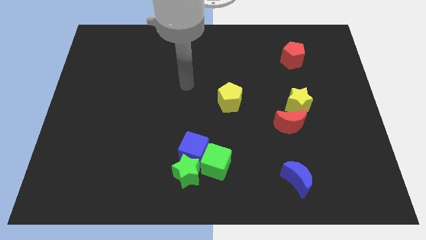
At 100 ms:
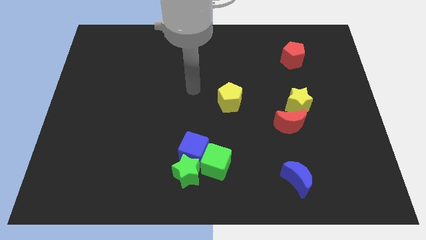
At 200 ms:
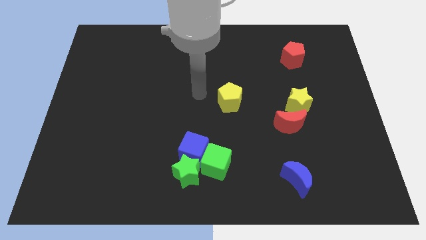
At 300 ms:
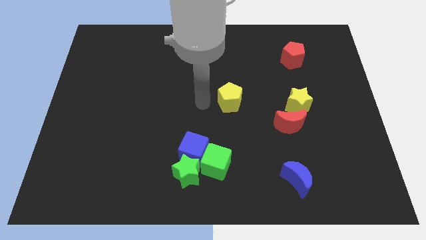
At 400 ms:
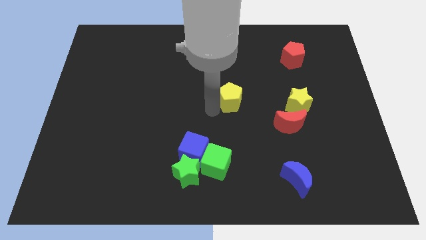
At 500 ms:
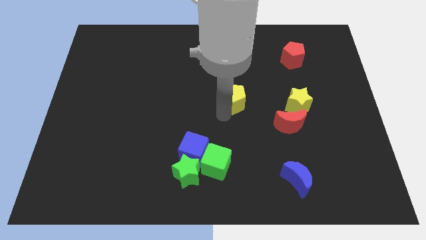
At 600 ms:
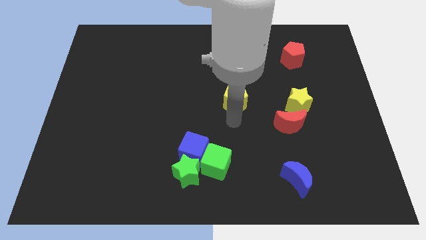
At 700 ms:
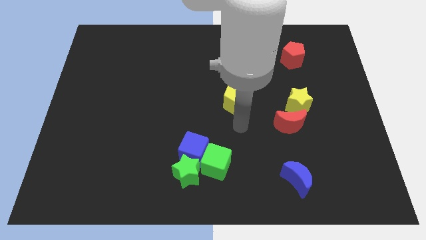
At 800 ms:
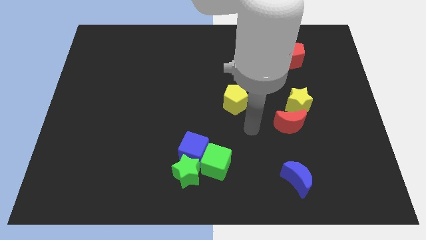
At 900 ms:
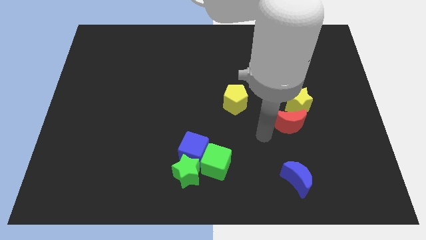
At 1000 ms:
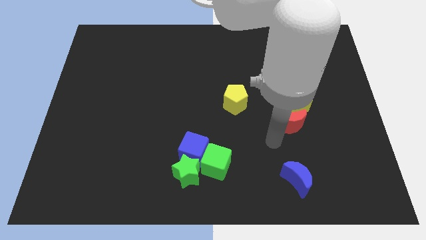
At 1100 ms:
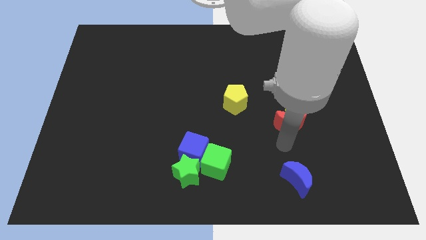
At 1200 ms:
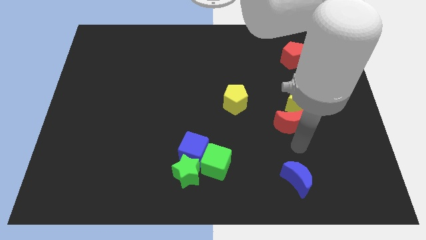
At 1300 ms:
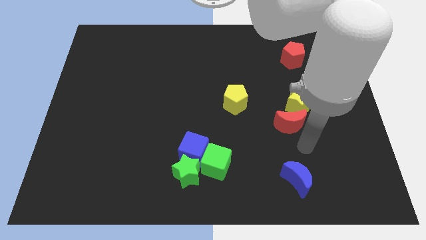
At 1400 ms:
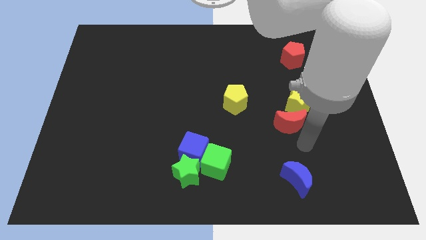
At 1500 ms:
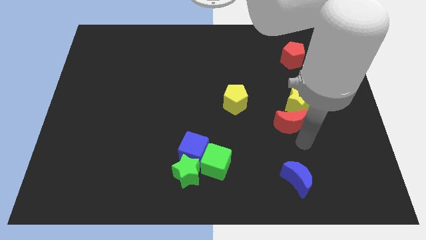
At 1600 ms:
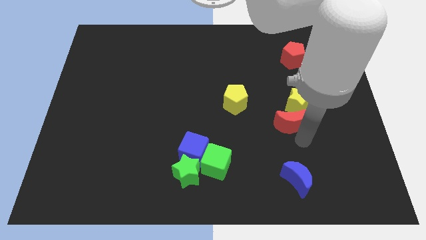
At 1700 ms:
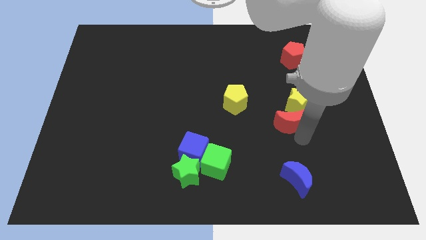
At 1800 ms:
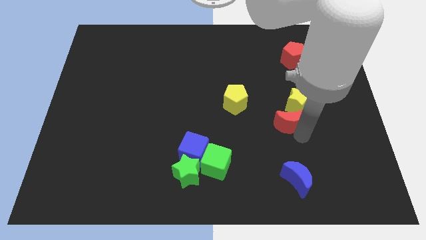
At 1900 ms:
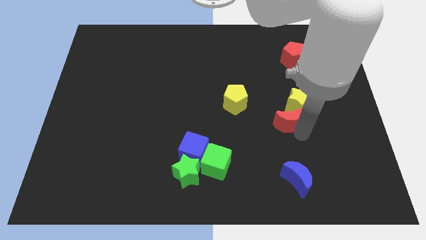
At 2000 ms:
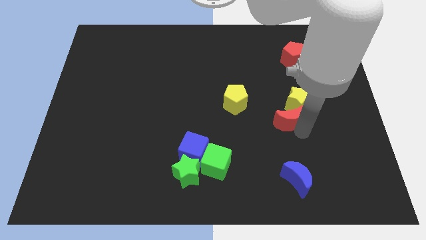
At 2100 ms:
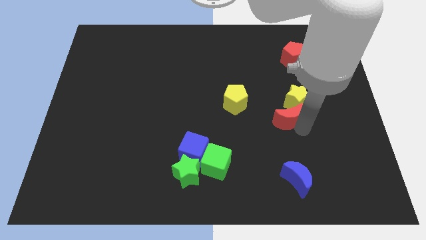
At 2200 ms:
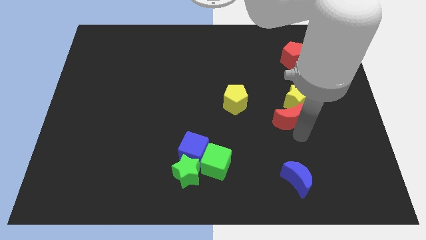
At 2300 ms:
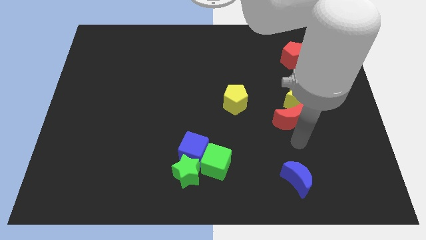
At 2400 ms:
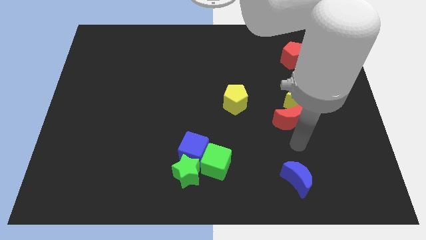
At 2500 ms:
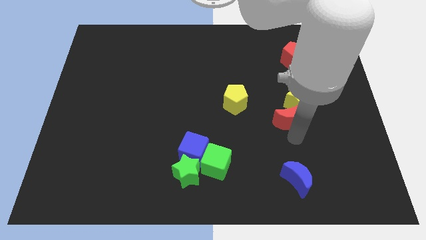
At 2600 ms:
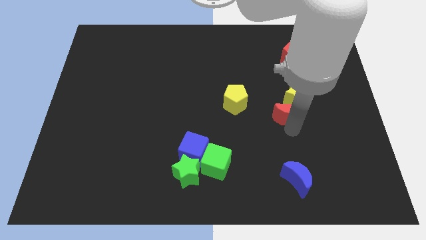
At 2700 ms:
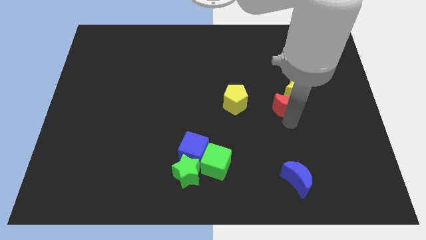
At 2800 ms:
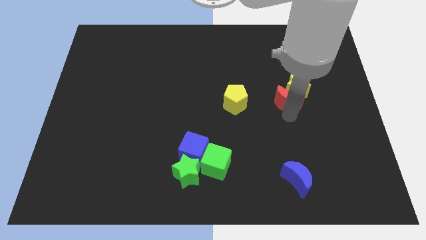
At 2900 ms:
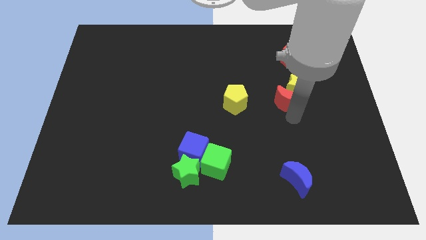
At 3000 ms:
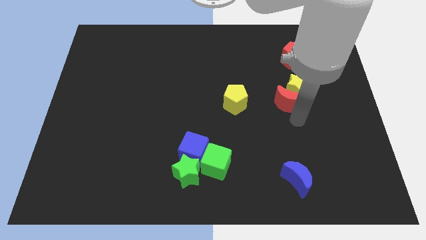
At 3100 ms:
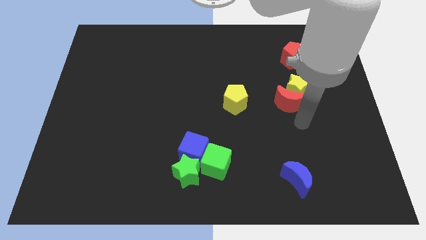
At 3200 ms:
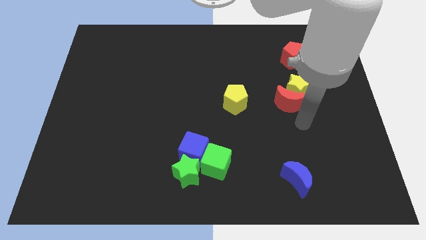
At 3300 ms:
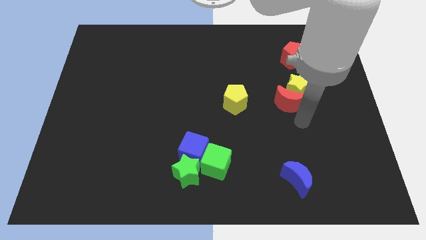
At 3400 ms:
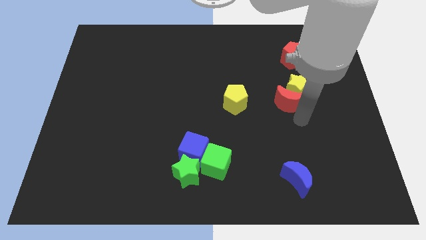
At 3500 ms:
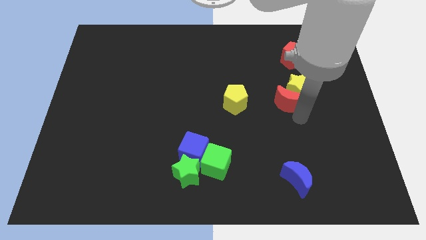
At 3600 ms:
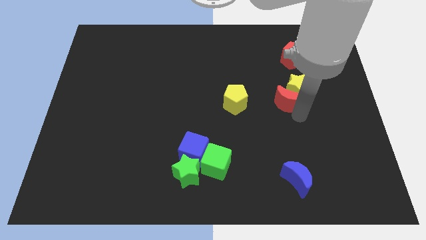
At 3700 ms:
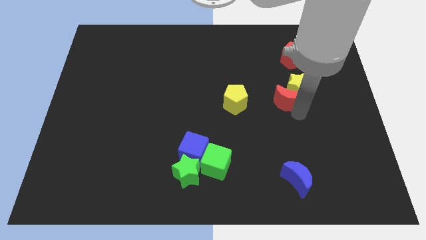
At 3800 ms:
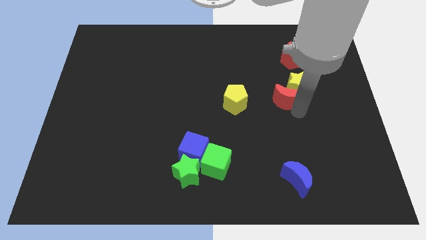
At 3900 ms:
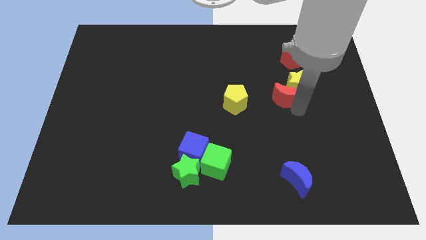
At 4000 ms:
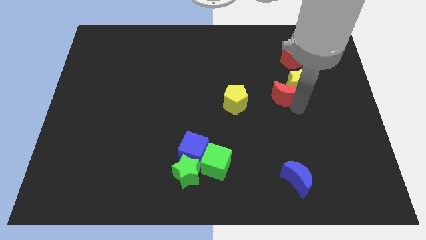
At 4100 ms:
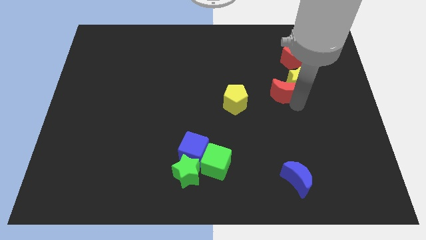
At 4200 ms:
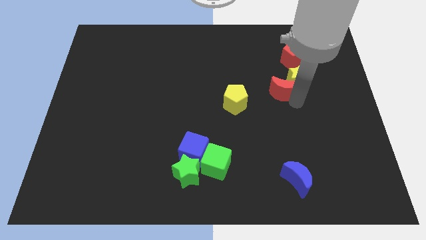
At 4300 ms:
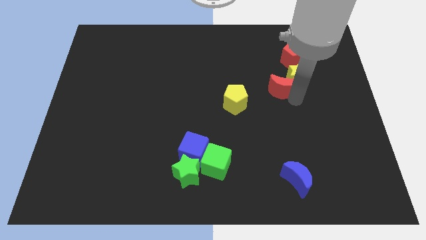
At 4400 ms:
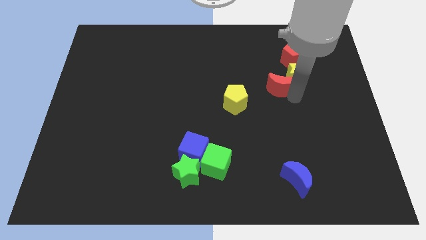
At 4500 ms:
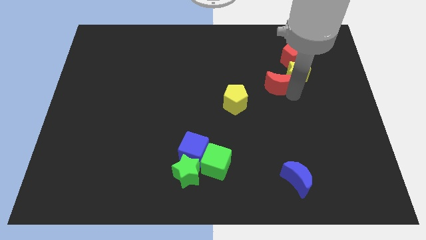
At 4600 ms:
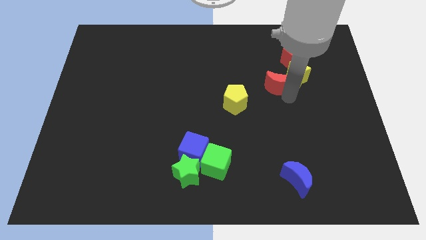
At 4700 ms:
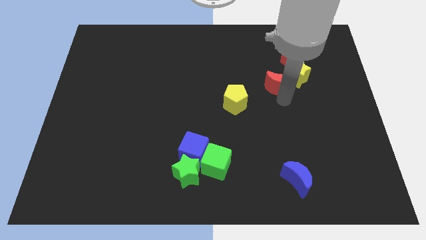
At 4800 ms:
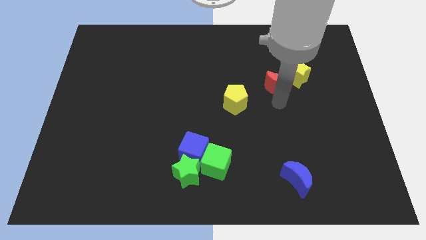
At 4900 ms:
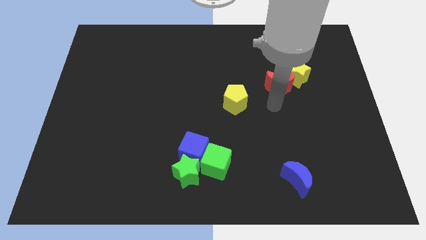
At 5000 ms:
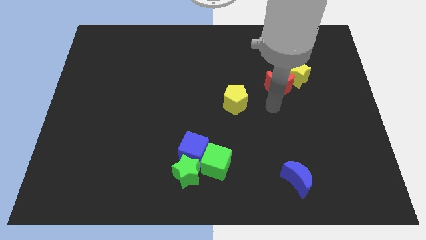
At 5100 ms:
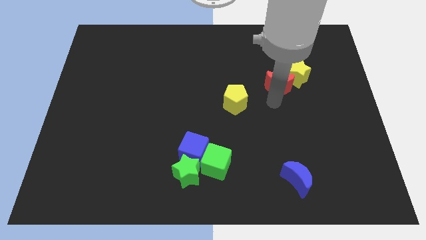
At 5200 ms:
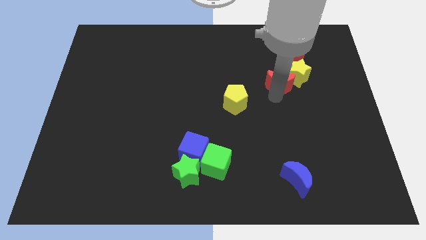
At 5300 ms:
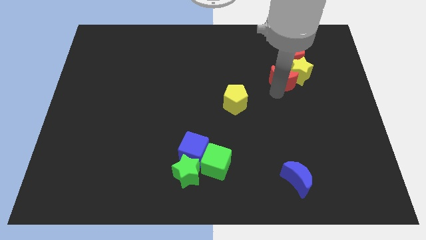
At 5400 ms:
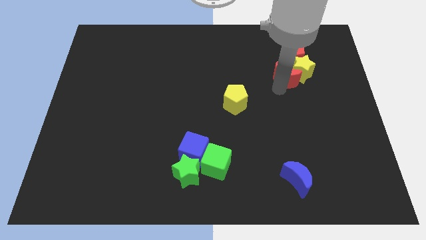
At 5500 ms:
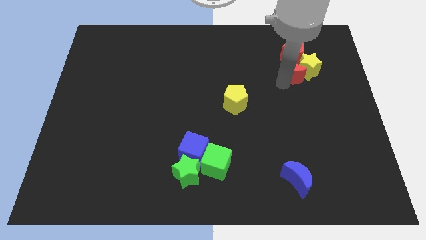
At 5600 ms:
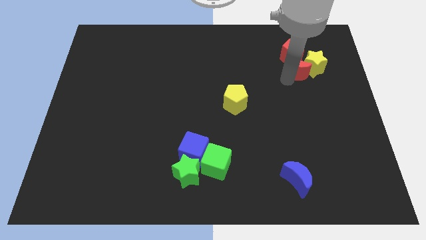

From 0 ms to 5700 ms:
push the red moon towards the red pentagon

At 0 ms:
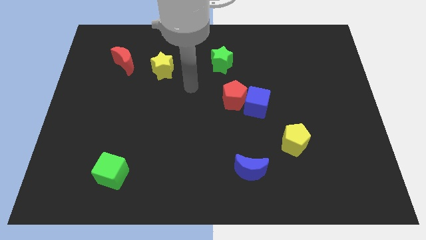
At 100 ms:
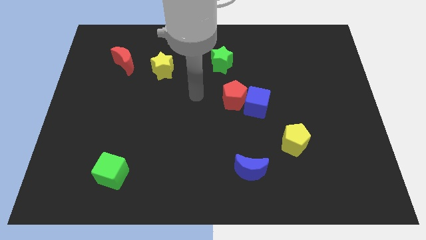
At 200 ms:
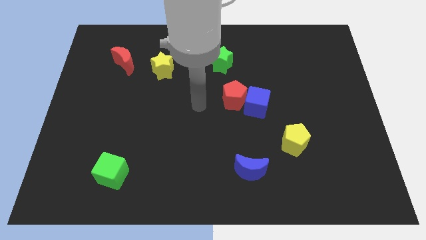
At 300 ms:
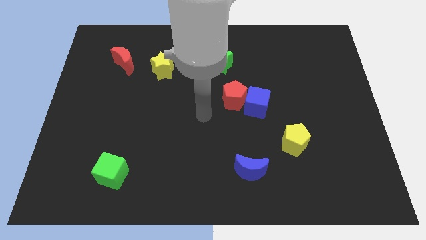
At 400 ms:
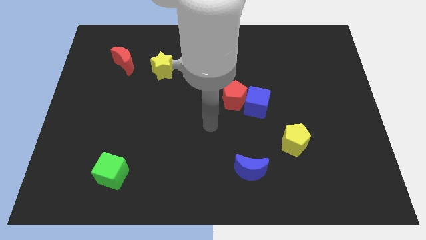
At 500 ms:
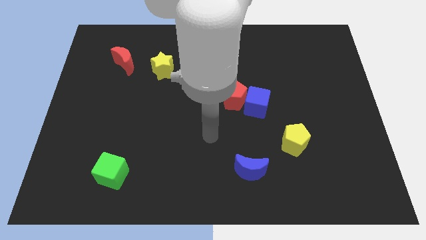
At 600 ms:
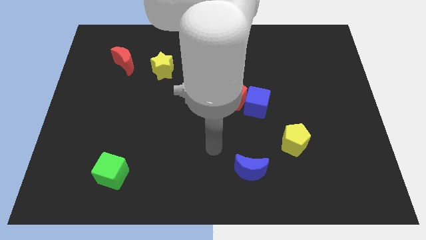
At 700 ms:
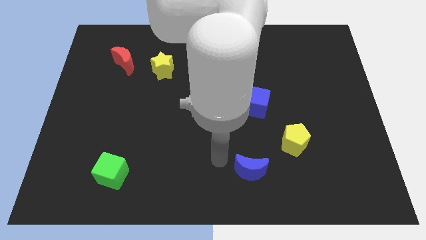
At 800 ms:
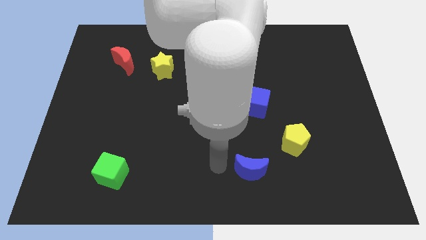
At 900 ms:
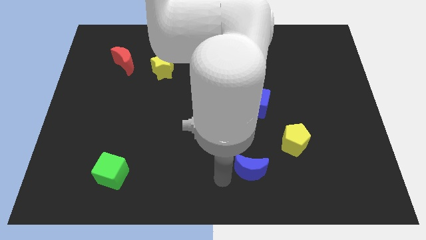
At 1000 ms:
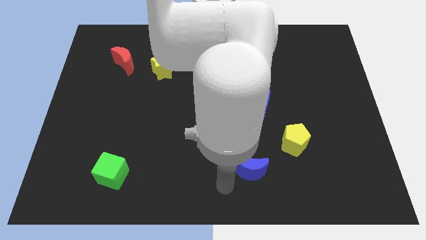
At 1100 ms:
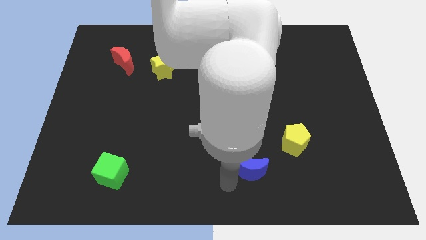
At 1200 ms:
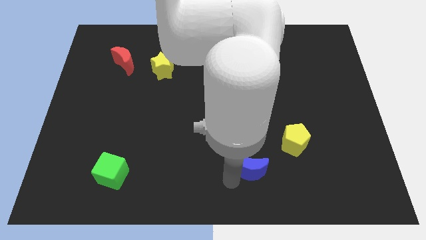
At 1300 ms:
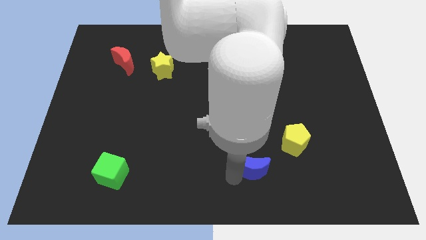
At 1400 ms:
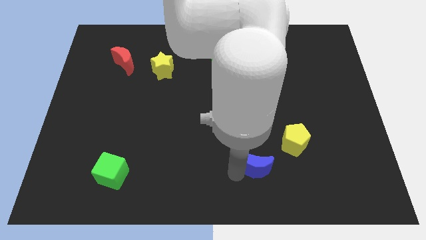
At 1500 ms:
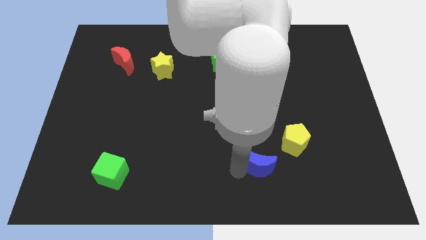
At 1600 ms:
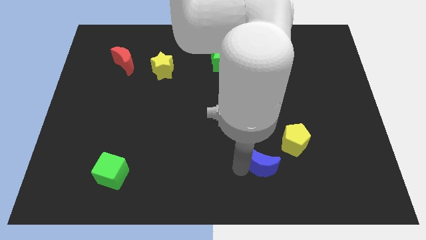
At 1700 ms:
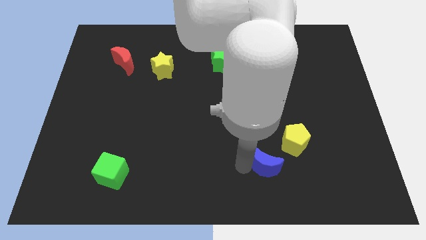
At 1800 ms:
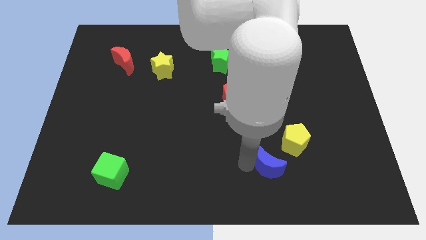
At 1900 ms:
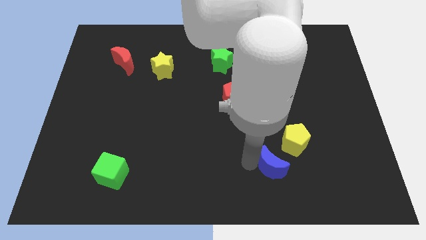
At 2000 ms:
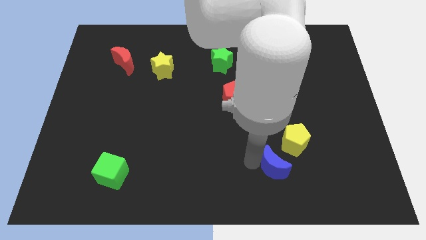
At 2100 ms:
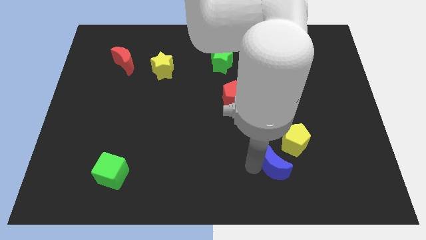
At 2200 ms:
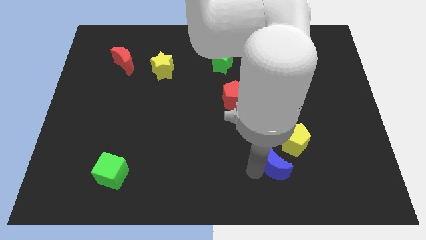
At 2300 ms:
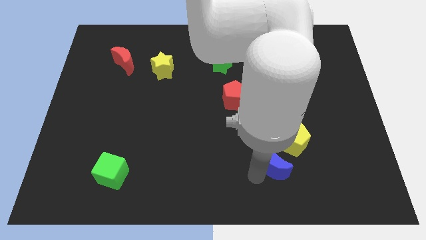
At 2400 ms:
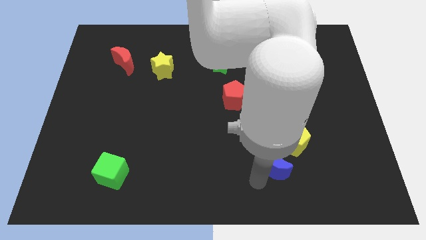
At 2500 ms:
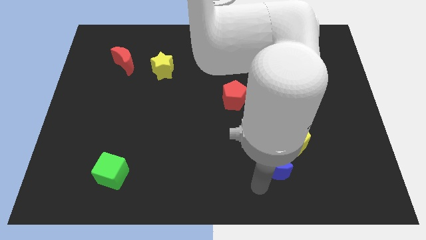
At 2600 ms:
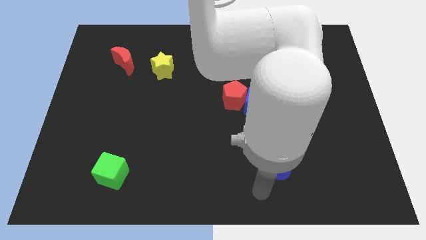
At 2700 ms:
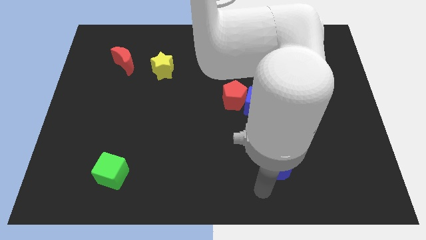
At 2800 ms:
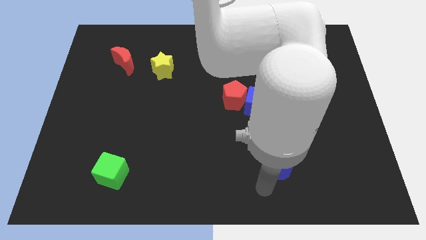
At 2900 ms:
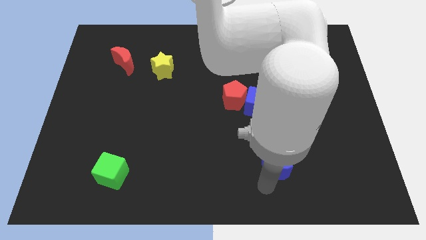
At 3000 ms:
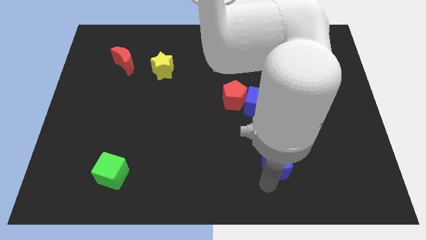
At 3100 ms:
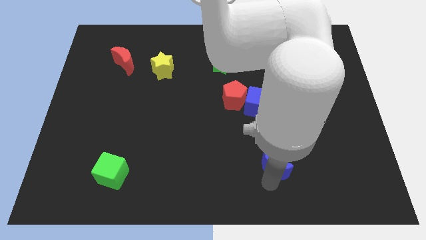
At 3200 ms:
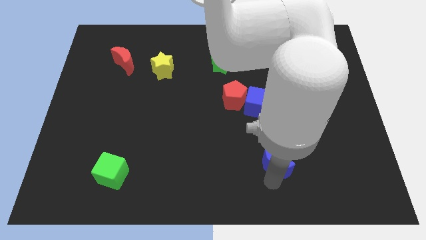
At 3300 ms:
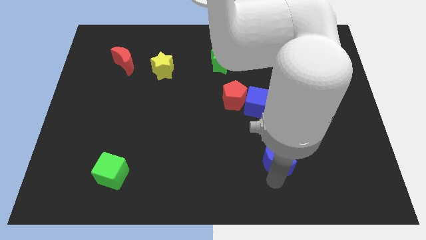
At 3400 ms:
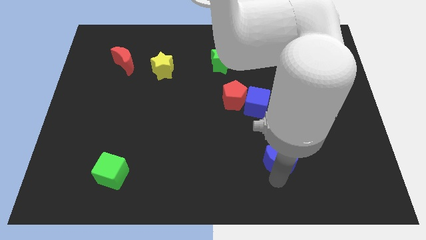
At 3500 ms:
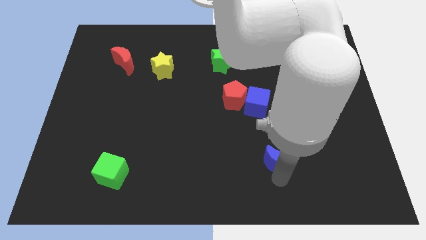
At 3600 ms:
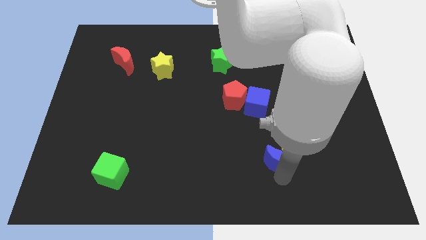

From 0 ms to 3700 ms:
move the blue moon close to the yellow pentagon
